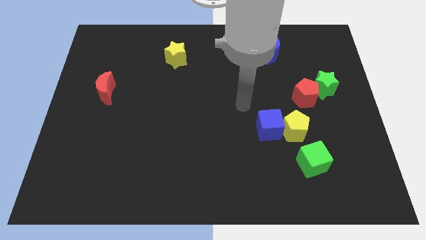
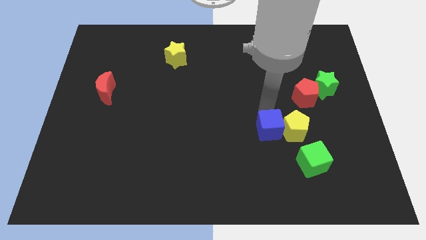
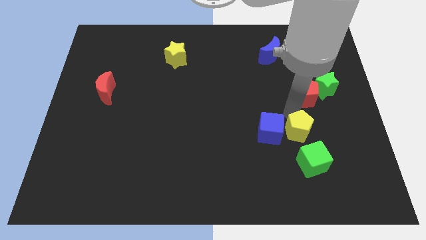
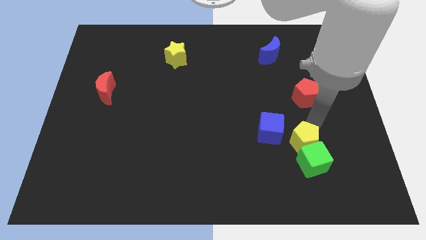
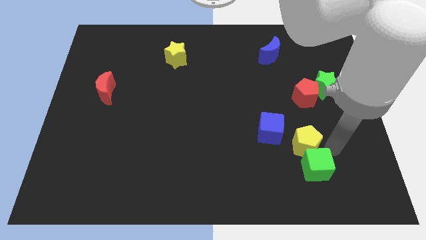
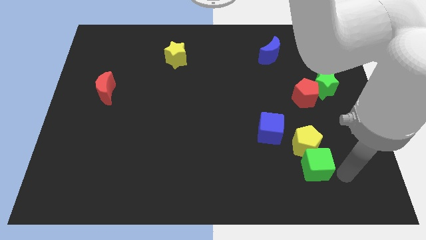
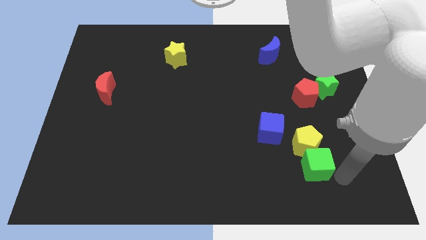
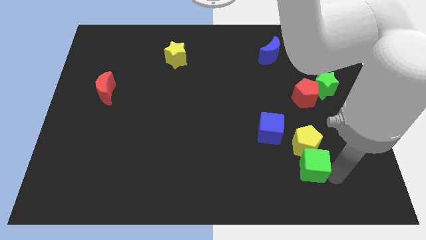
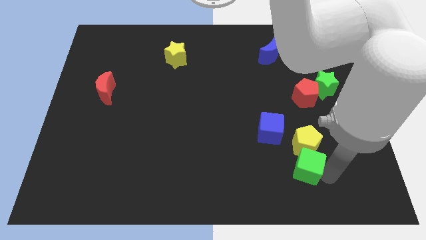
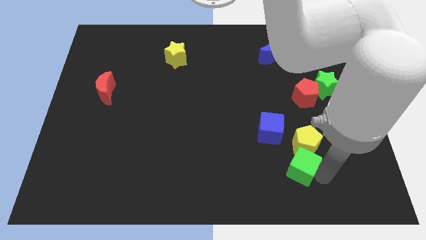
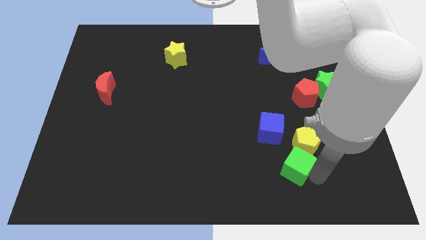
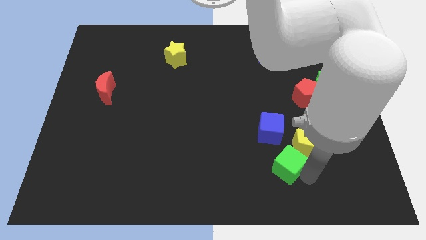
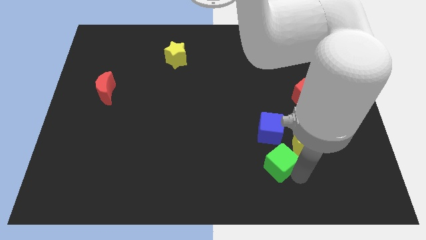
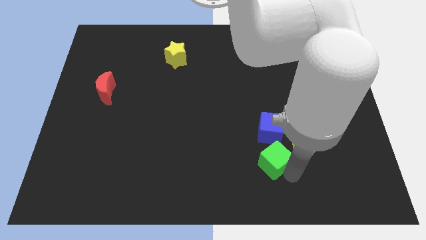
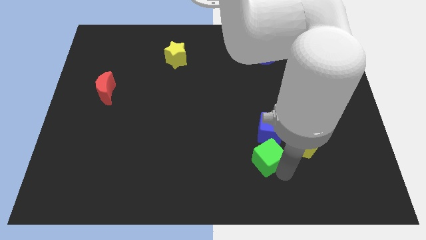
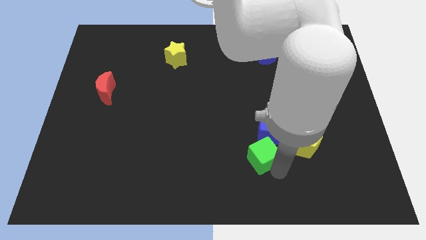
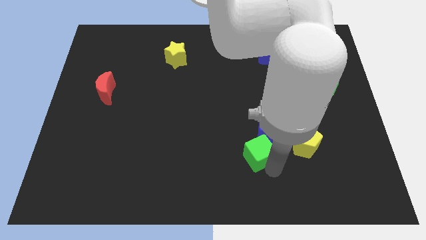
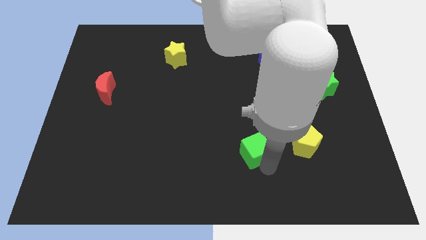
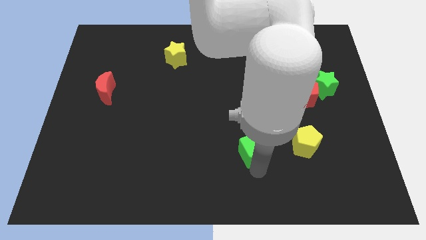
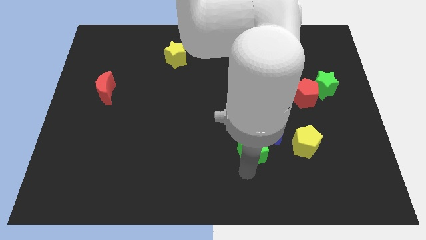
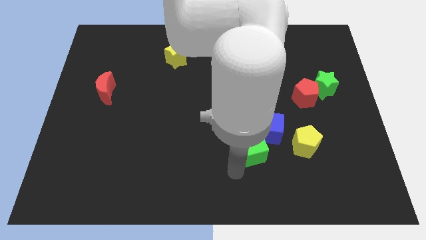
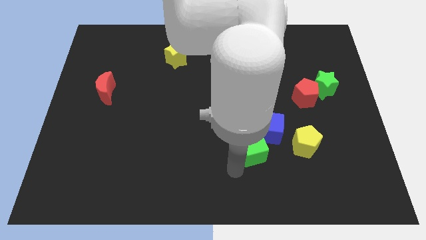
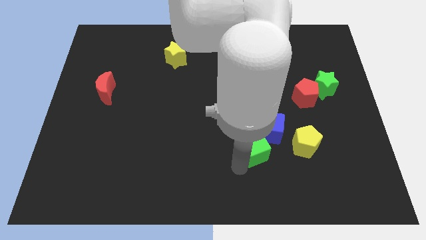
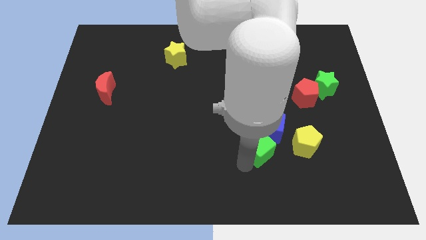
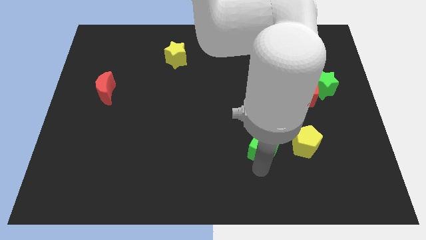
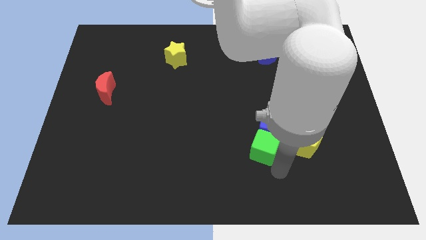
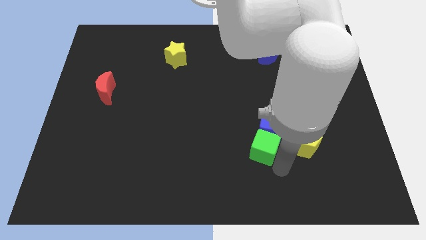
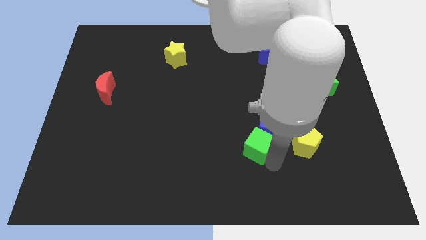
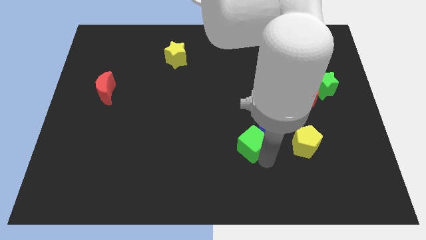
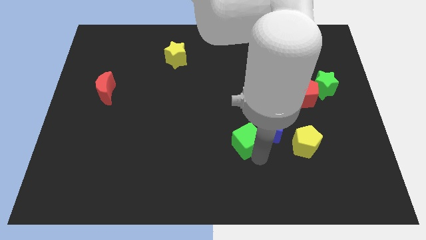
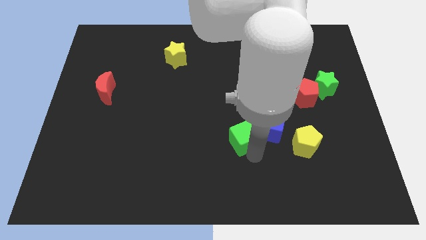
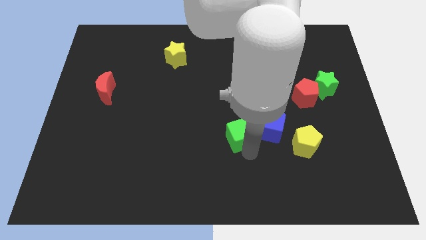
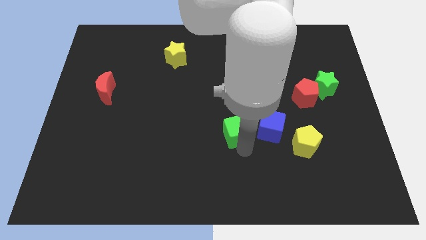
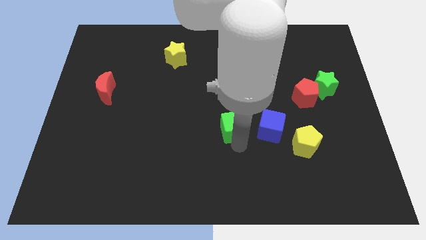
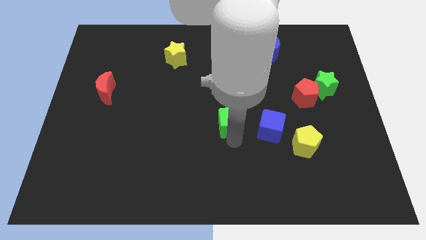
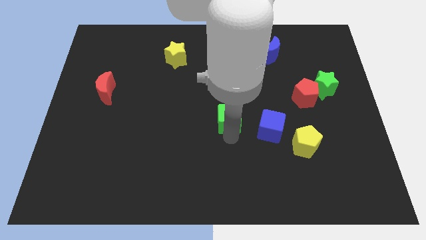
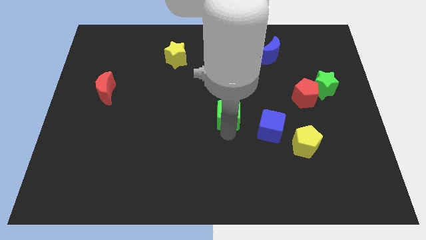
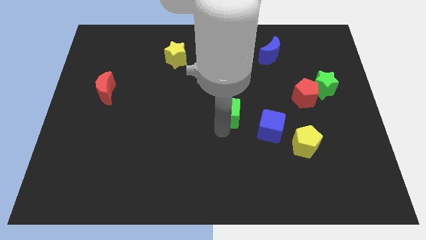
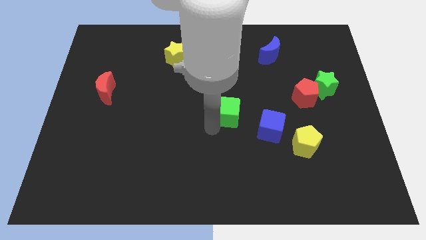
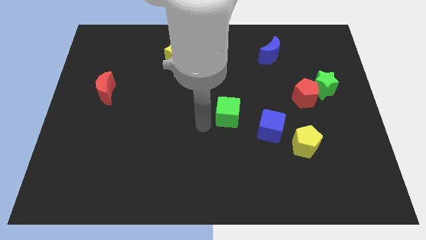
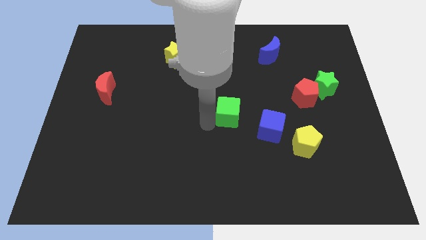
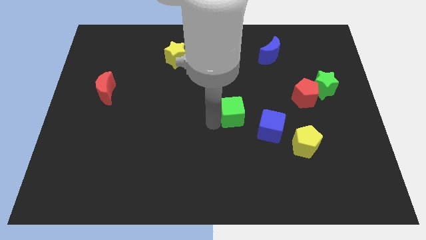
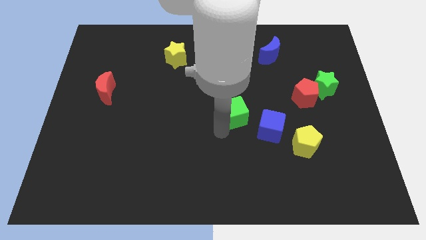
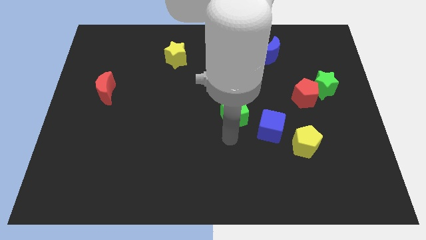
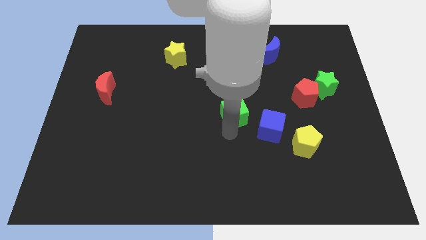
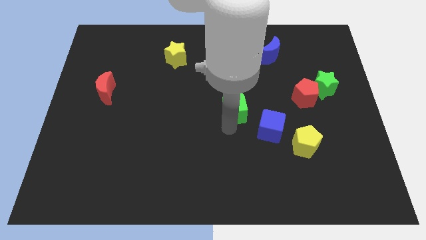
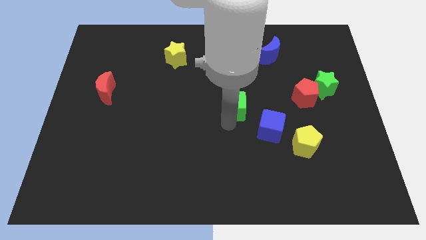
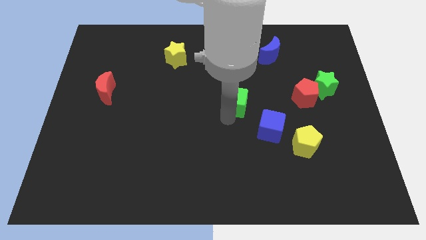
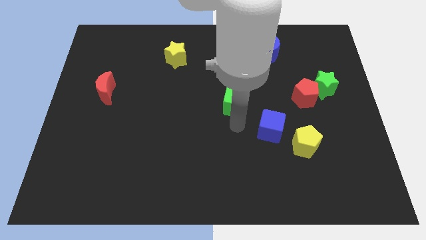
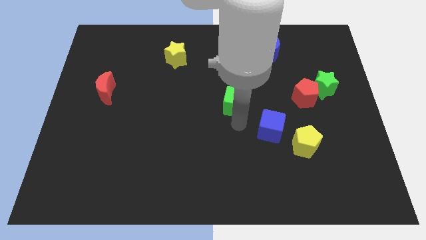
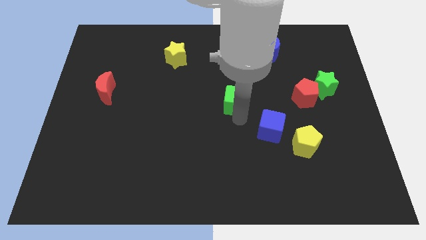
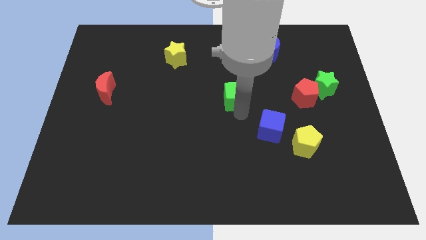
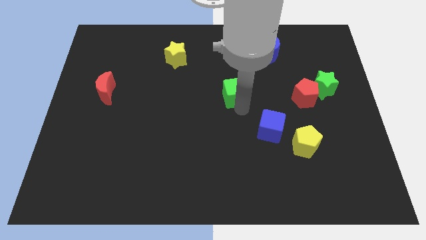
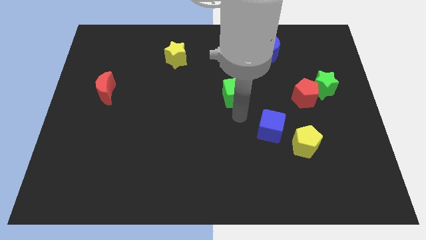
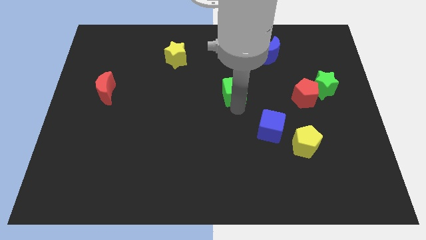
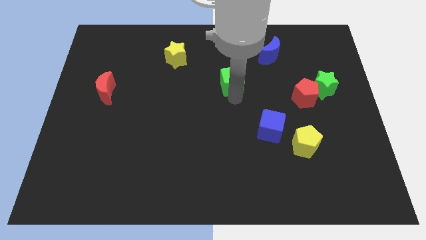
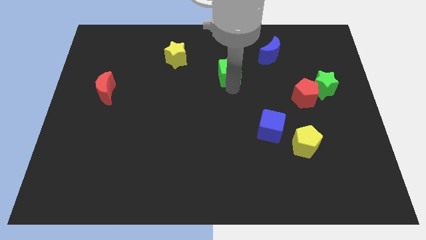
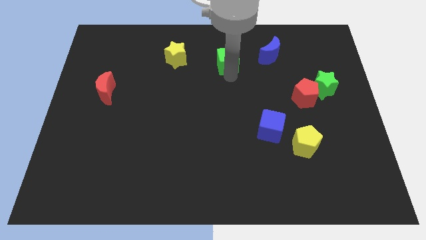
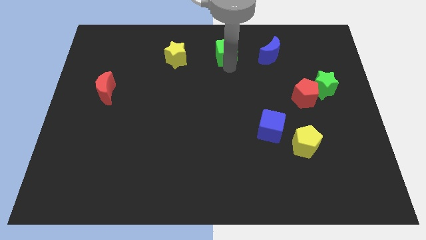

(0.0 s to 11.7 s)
push the green cube to the towards your base

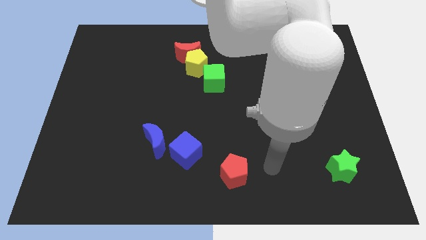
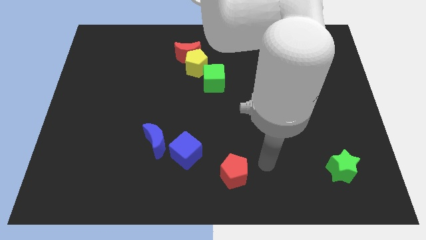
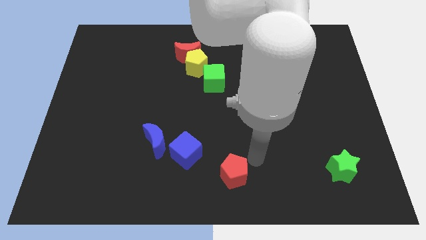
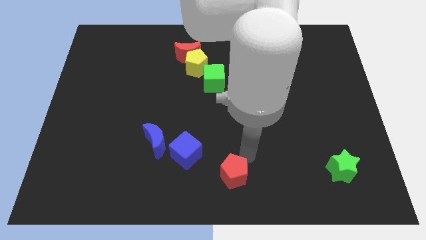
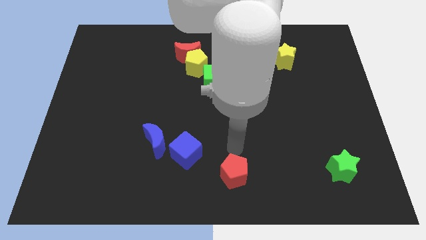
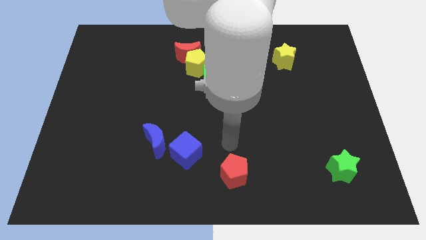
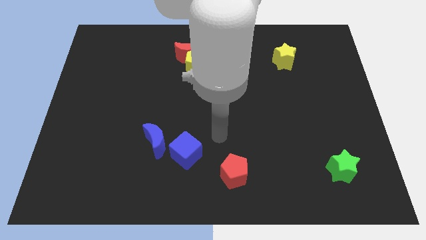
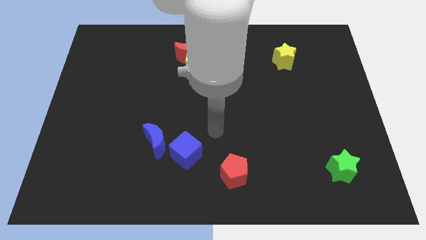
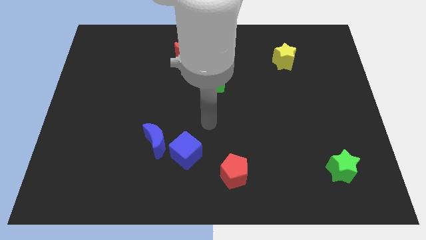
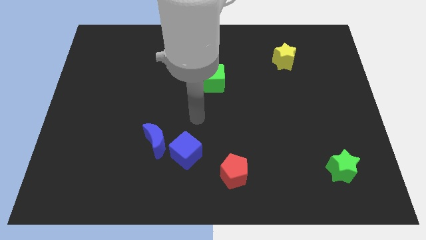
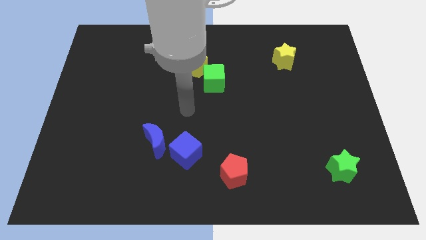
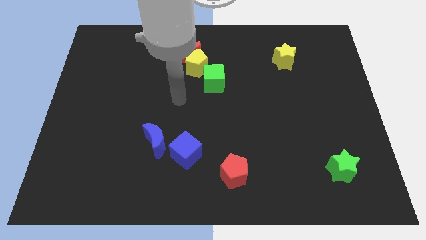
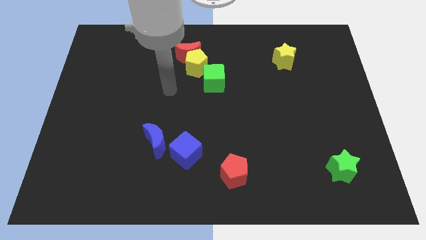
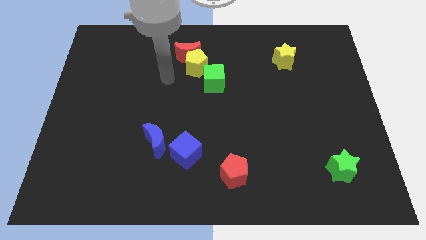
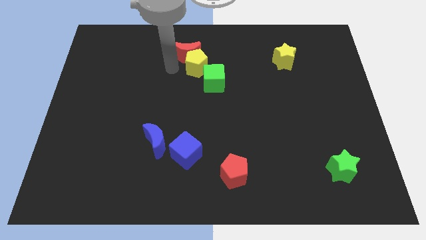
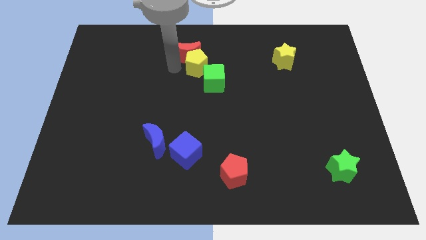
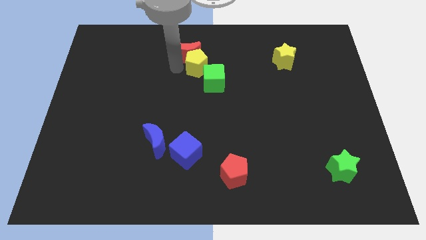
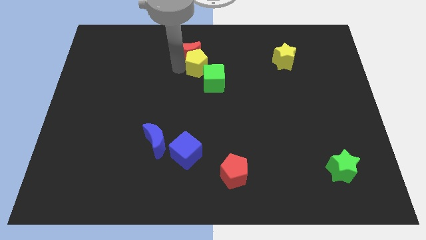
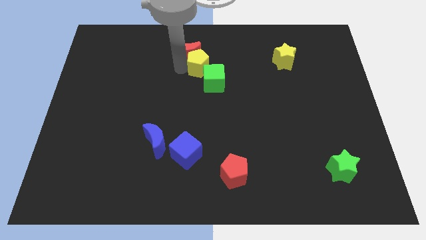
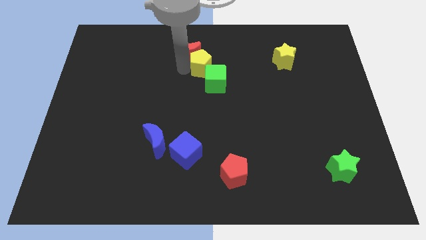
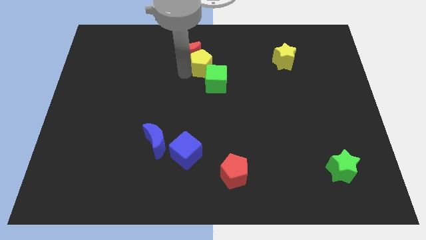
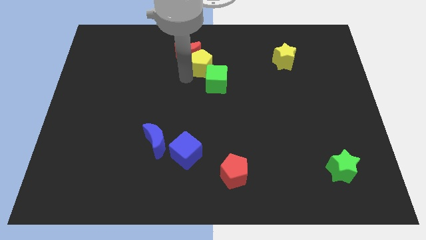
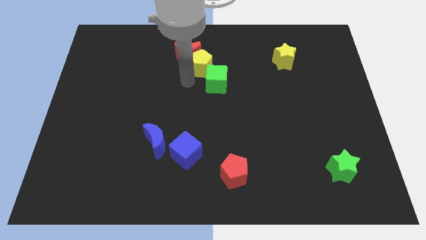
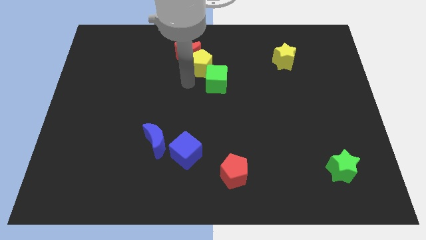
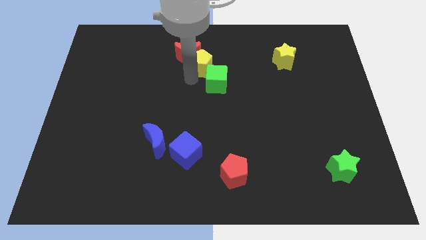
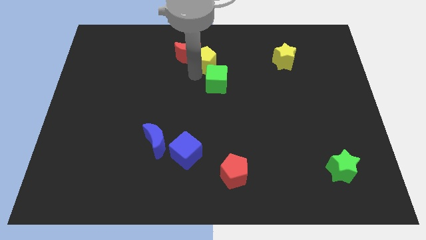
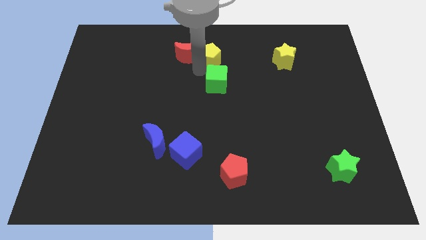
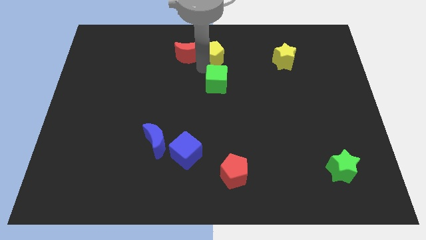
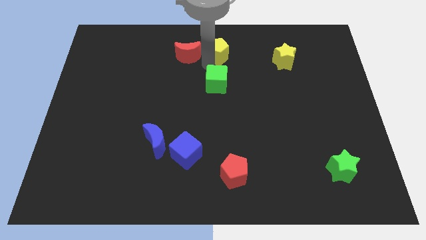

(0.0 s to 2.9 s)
move the yellow pentagon to the top
